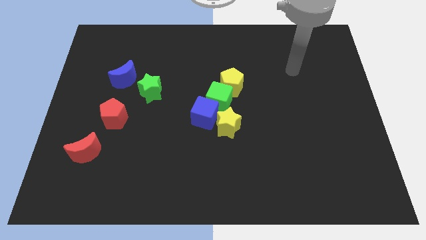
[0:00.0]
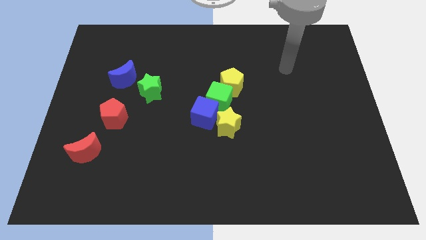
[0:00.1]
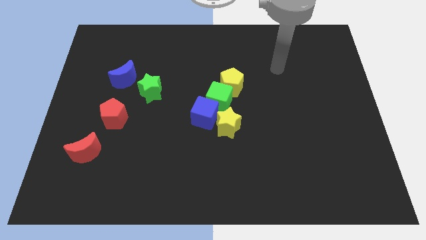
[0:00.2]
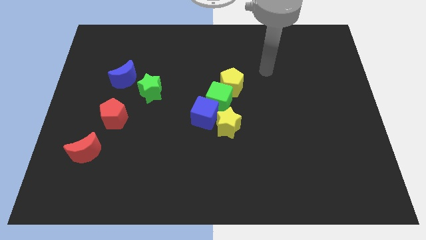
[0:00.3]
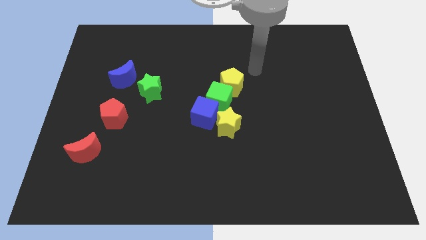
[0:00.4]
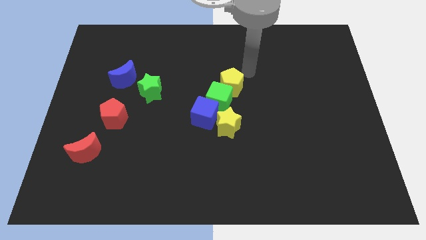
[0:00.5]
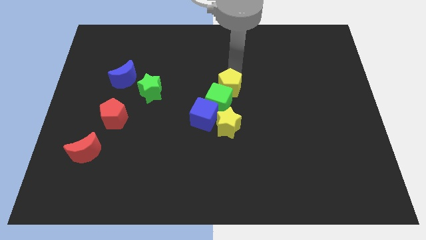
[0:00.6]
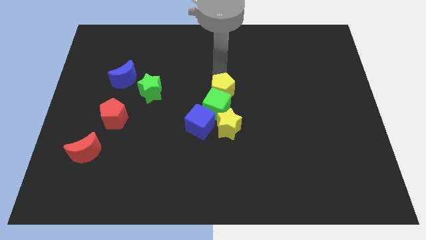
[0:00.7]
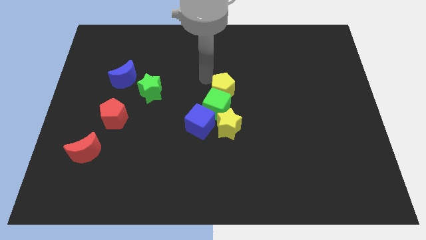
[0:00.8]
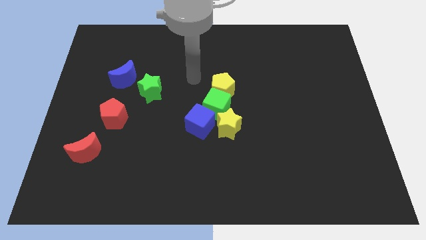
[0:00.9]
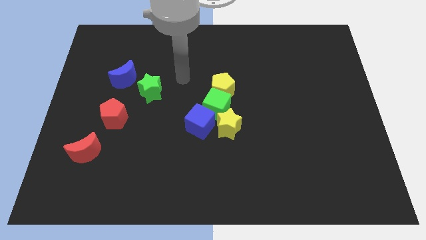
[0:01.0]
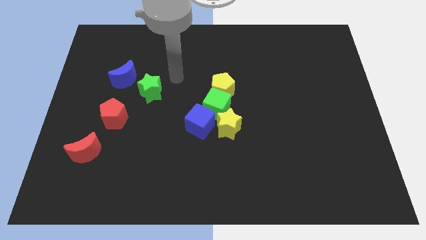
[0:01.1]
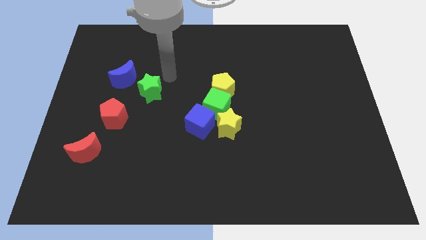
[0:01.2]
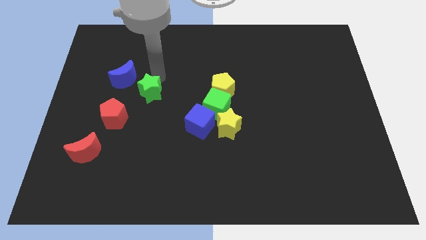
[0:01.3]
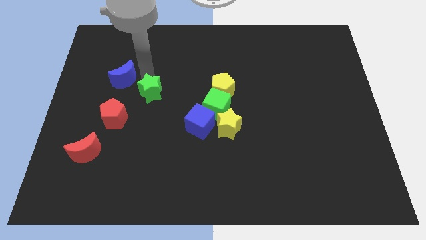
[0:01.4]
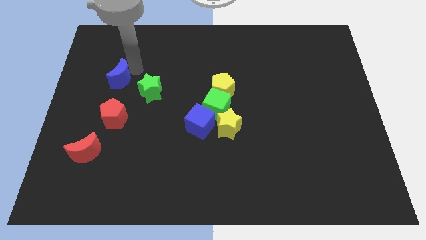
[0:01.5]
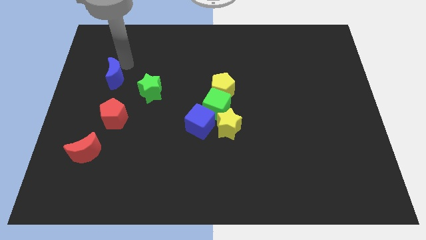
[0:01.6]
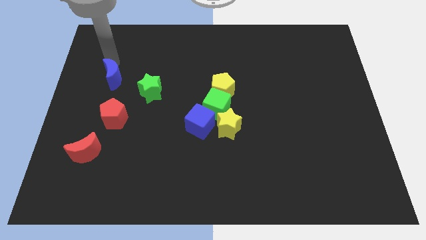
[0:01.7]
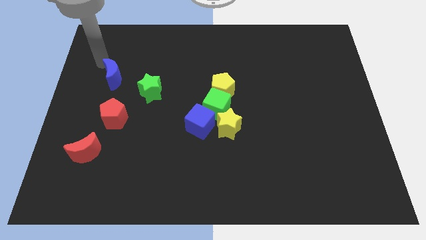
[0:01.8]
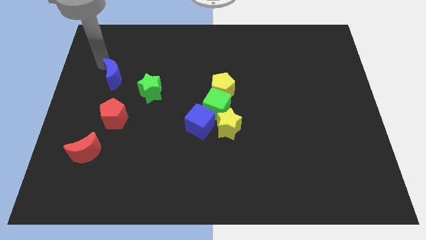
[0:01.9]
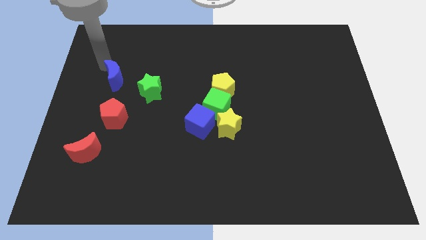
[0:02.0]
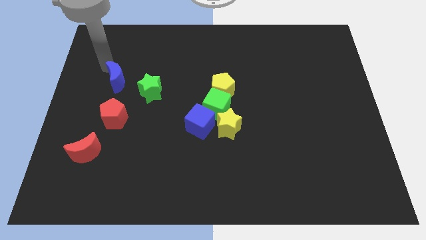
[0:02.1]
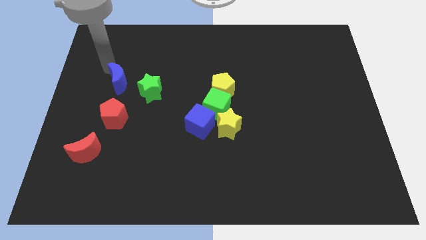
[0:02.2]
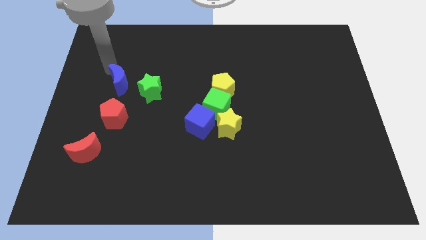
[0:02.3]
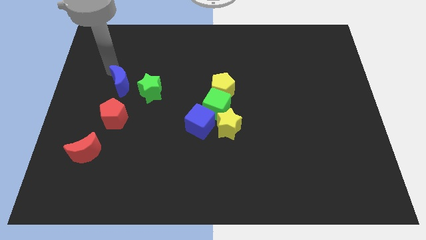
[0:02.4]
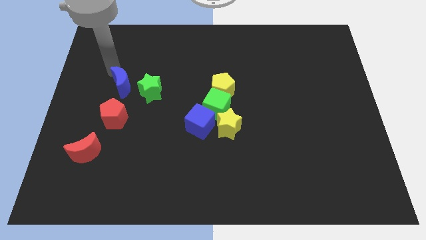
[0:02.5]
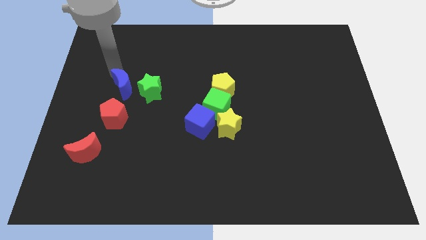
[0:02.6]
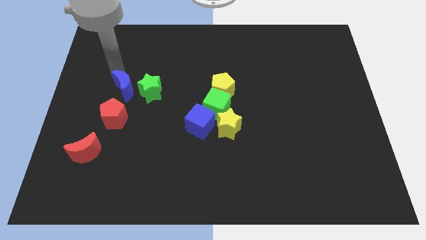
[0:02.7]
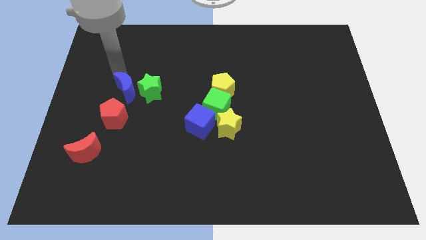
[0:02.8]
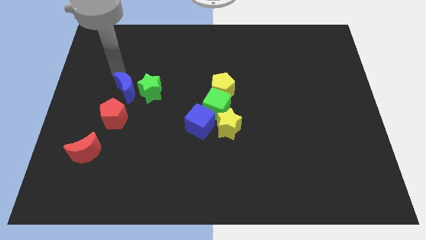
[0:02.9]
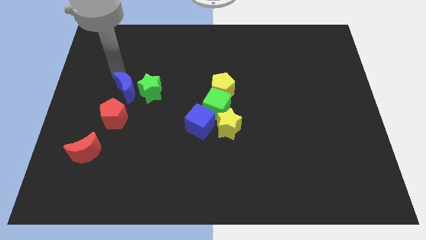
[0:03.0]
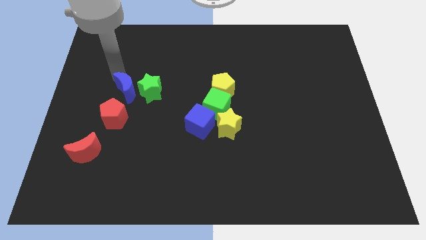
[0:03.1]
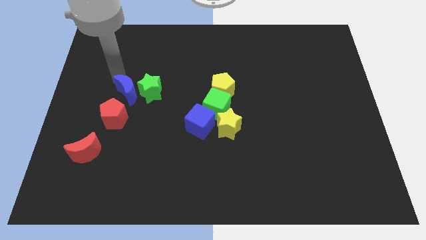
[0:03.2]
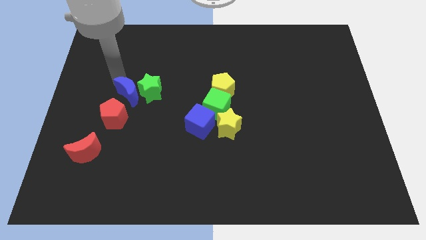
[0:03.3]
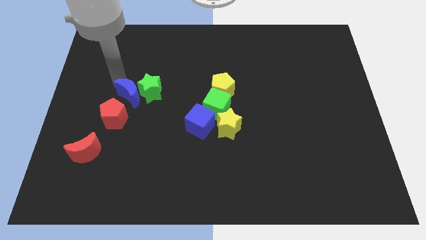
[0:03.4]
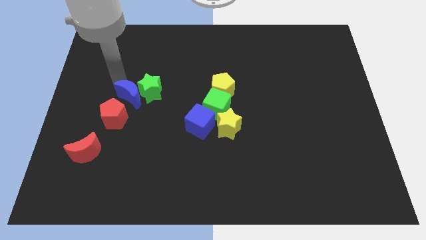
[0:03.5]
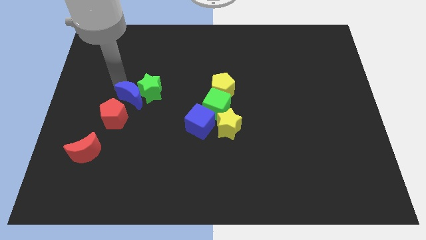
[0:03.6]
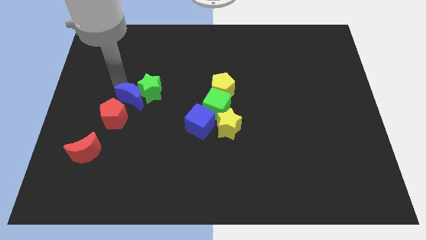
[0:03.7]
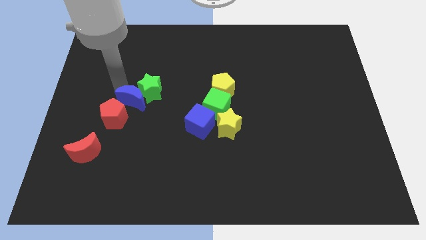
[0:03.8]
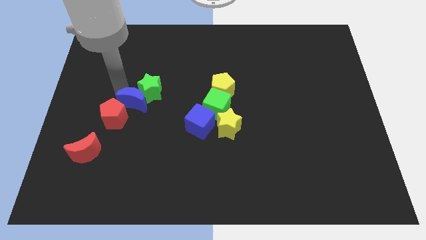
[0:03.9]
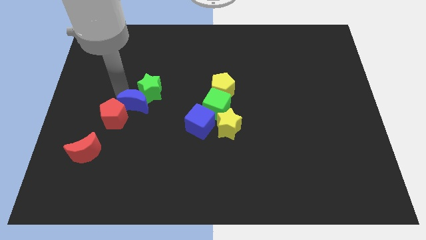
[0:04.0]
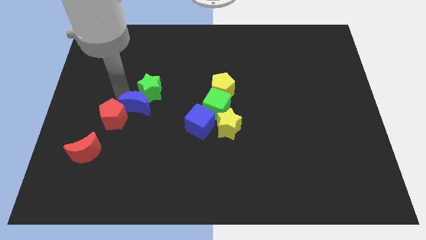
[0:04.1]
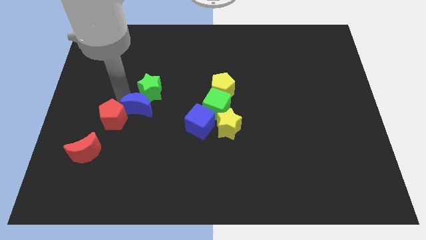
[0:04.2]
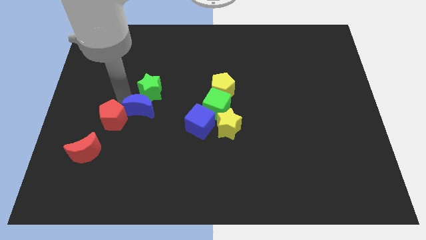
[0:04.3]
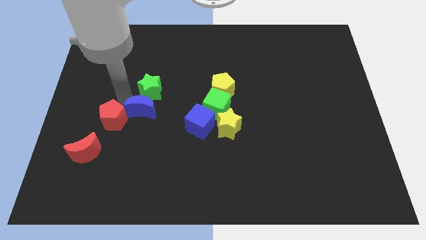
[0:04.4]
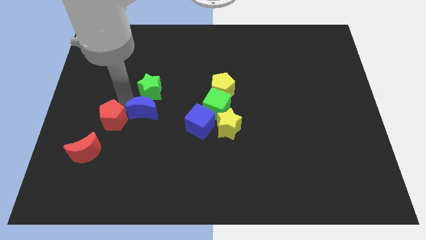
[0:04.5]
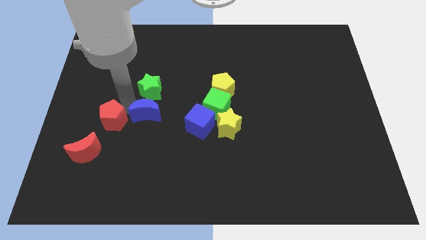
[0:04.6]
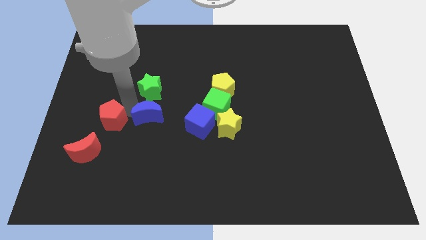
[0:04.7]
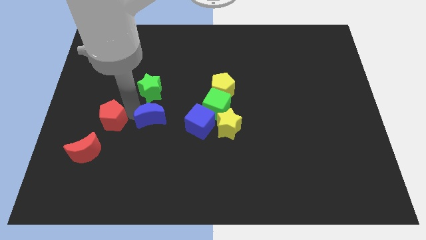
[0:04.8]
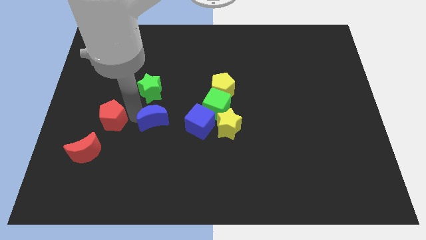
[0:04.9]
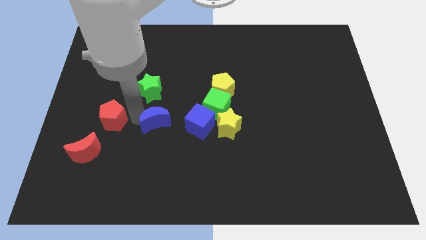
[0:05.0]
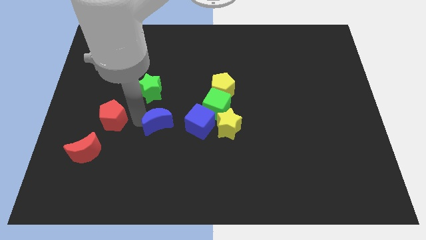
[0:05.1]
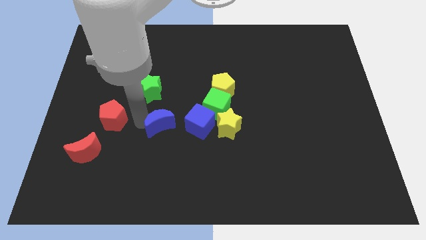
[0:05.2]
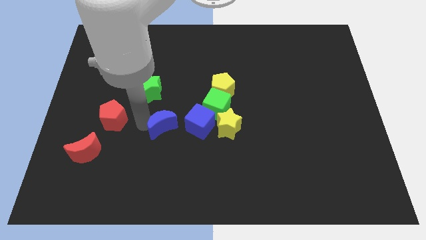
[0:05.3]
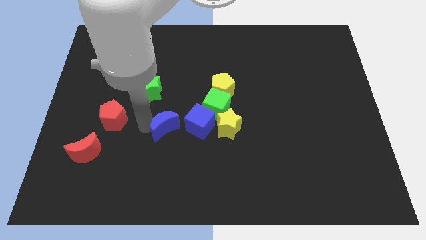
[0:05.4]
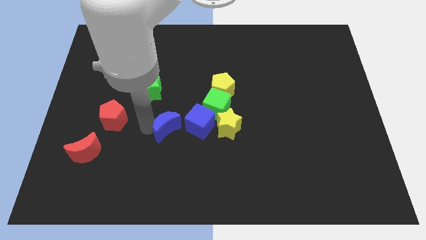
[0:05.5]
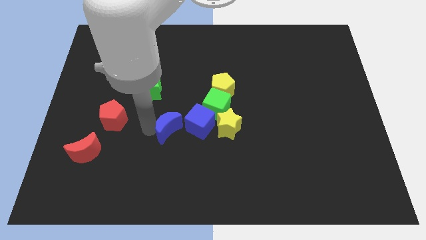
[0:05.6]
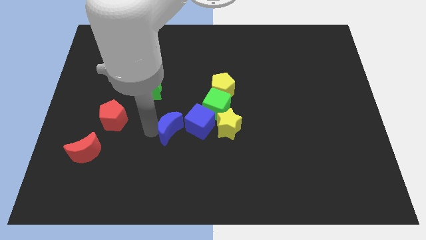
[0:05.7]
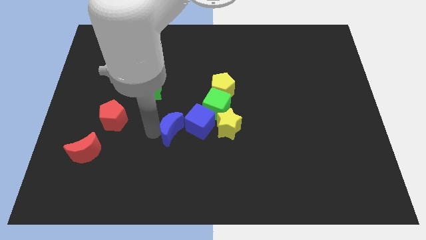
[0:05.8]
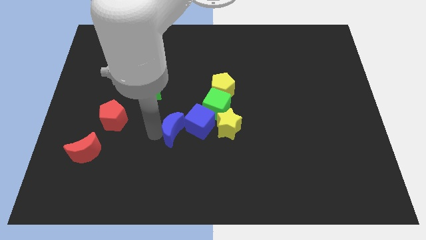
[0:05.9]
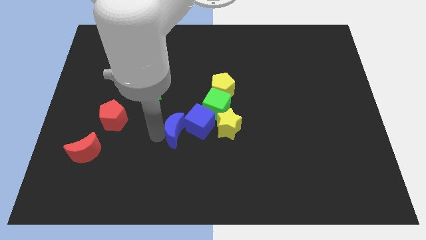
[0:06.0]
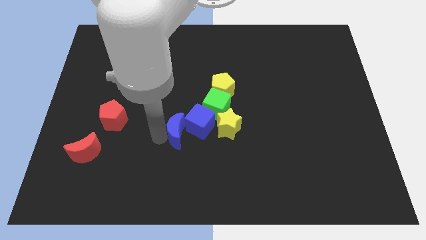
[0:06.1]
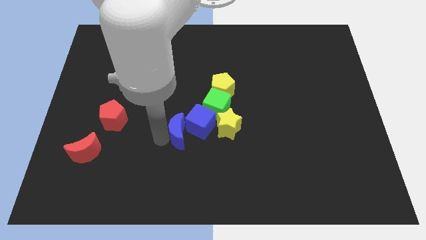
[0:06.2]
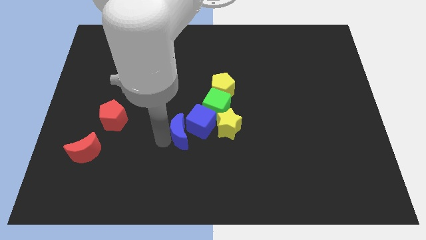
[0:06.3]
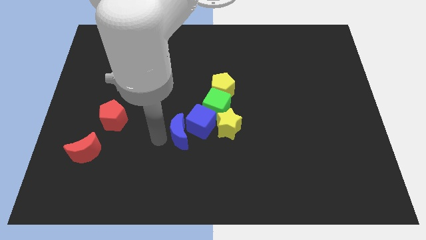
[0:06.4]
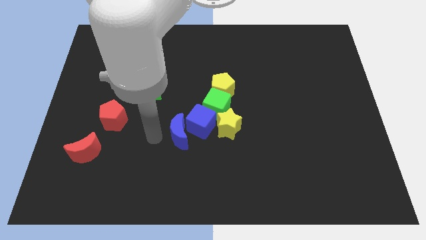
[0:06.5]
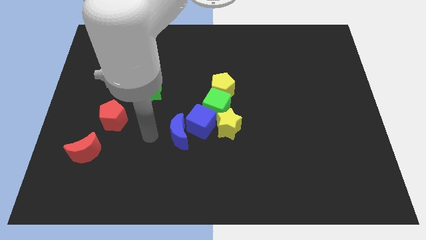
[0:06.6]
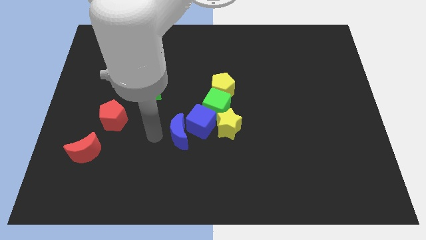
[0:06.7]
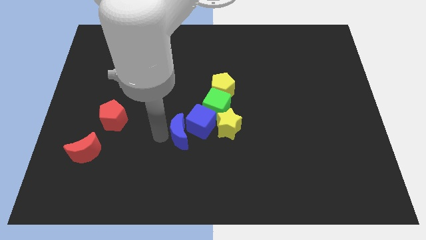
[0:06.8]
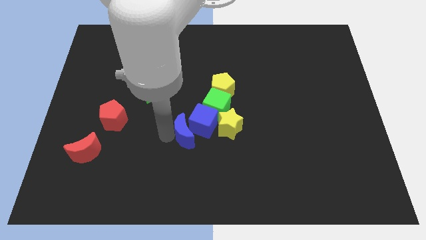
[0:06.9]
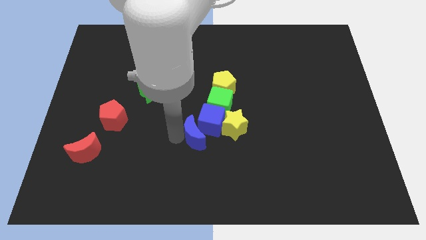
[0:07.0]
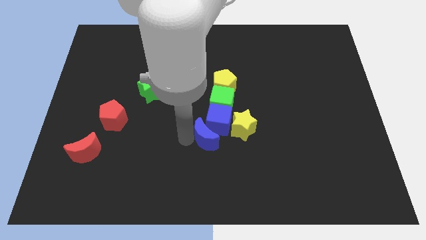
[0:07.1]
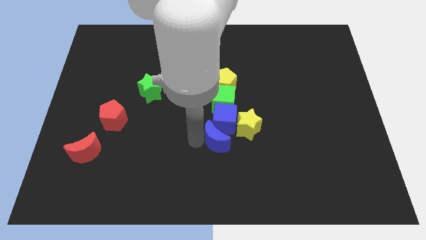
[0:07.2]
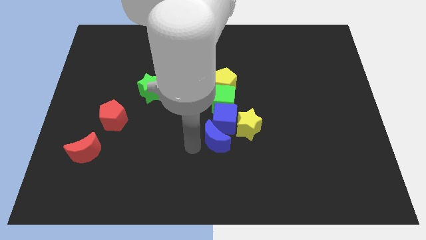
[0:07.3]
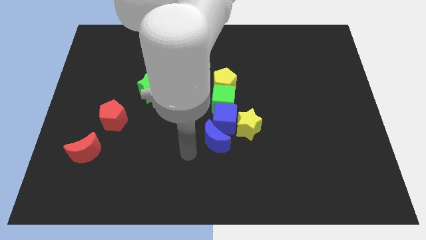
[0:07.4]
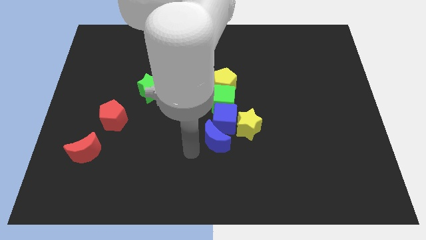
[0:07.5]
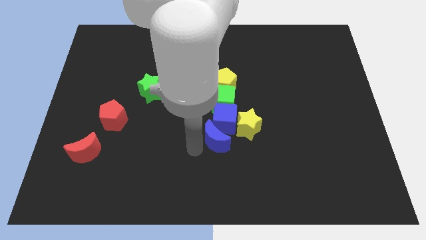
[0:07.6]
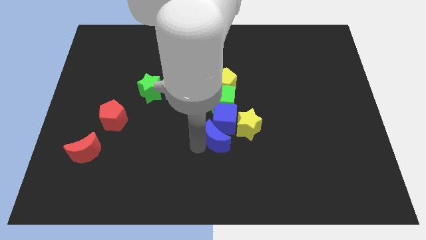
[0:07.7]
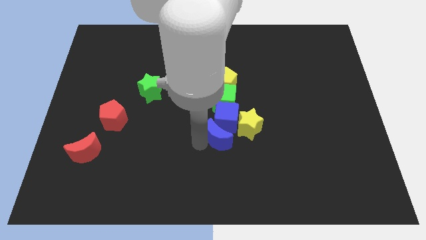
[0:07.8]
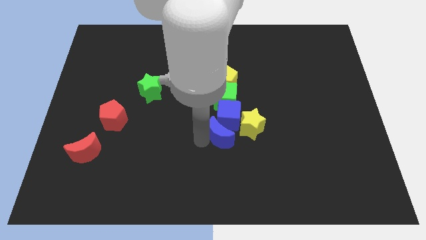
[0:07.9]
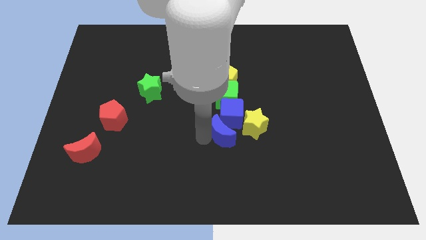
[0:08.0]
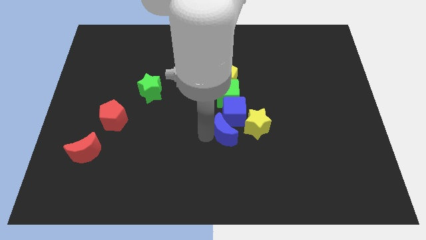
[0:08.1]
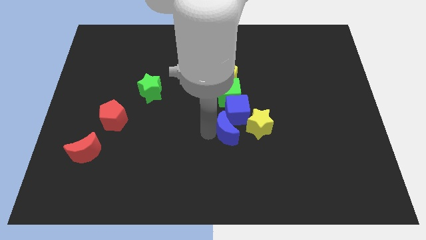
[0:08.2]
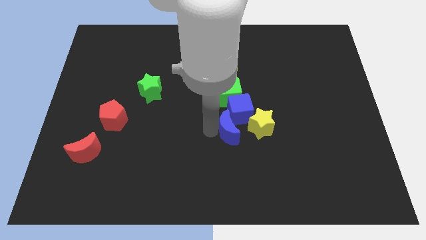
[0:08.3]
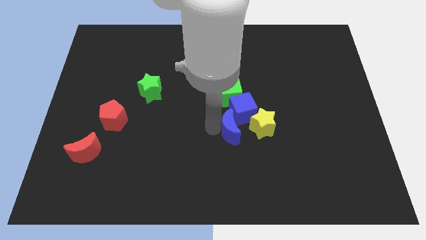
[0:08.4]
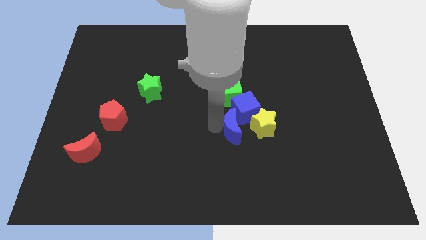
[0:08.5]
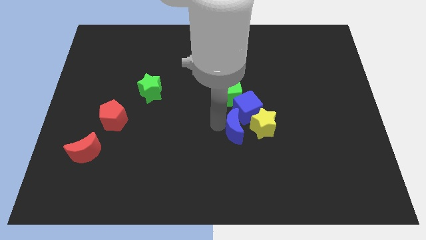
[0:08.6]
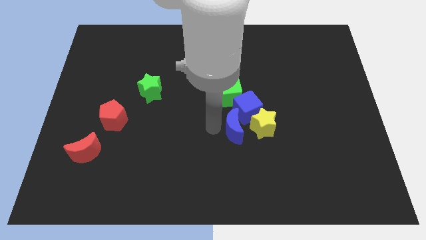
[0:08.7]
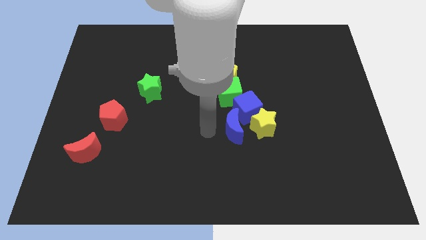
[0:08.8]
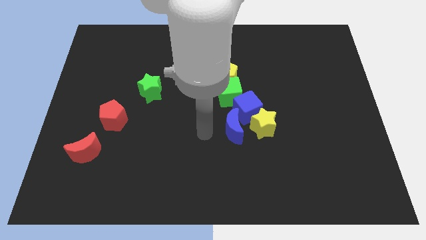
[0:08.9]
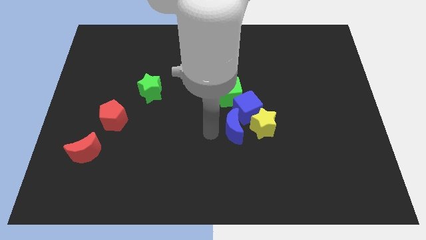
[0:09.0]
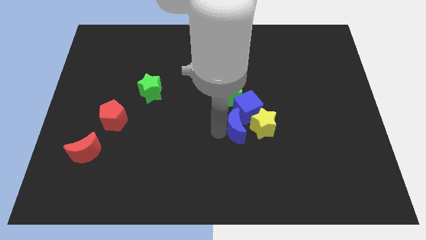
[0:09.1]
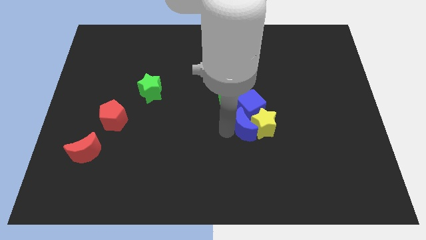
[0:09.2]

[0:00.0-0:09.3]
move the blue moon to the yellow star
